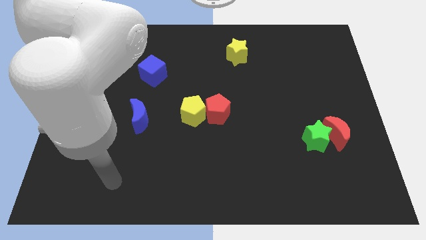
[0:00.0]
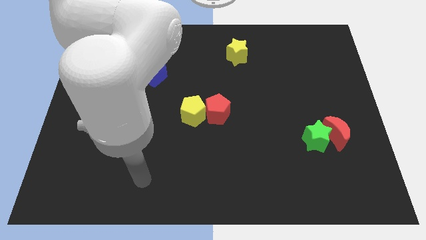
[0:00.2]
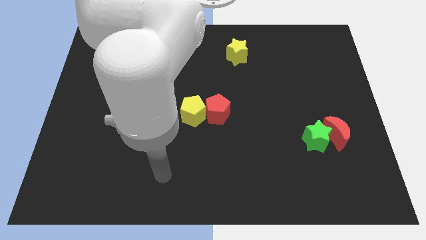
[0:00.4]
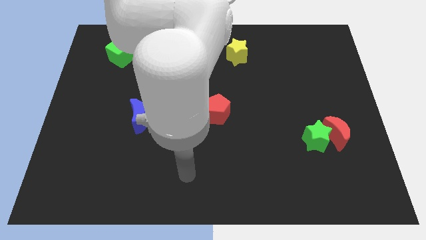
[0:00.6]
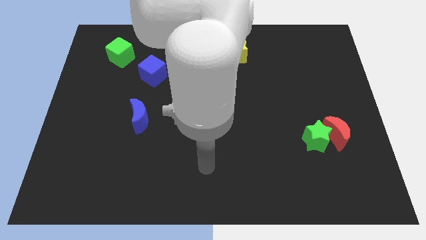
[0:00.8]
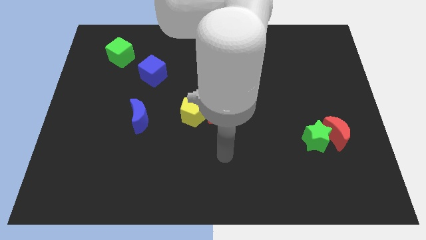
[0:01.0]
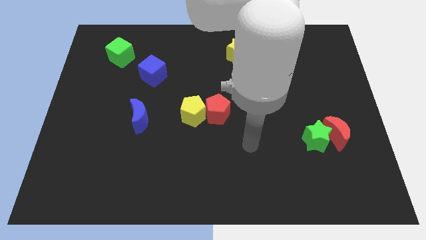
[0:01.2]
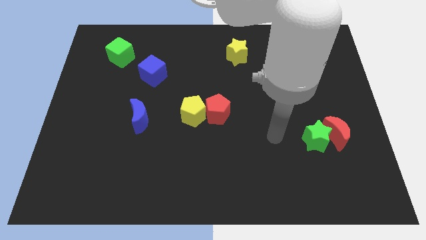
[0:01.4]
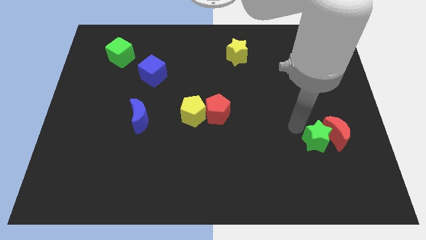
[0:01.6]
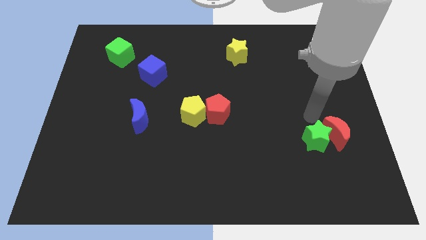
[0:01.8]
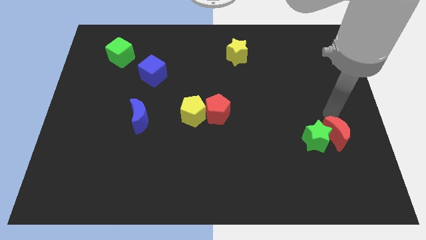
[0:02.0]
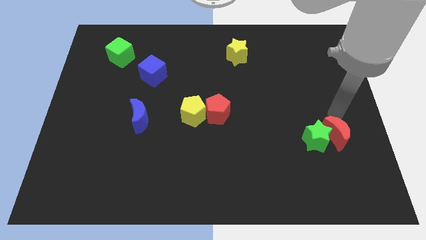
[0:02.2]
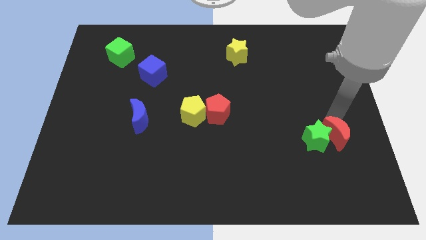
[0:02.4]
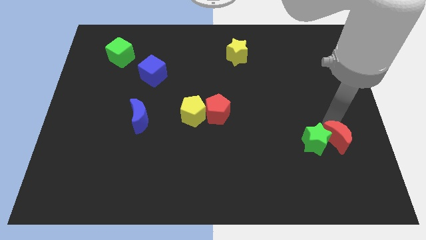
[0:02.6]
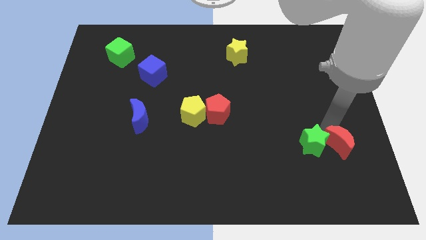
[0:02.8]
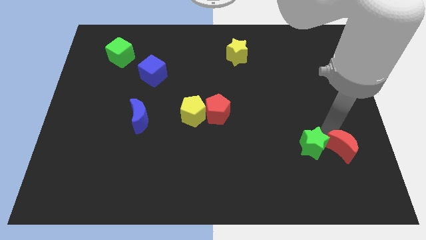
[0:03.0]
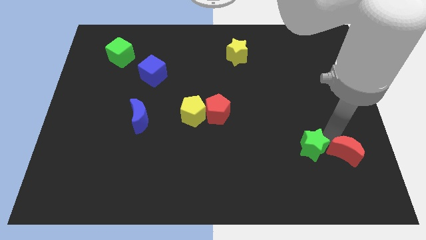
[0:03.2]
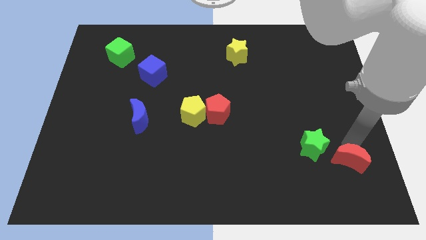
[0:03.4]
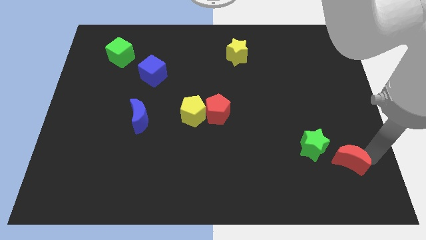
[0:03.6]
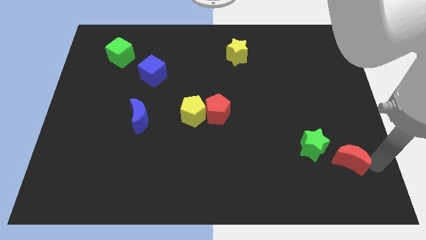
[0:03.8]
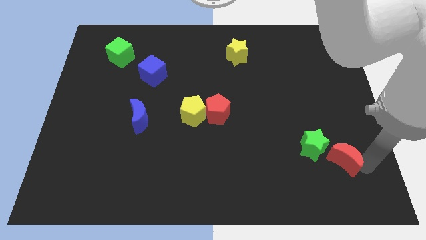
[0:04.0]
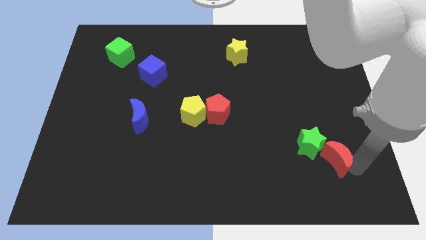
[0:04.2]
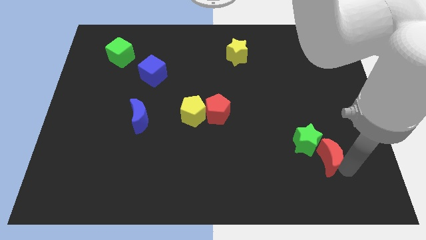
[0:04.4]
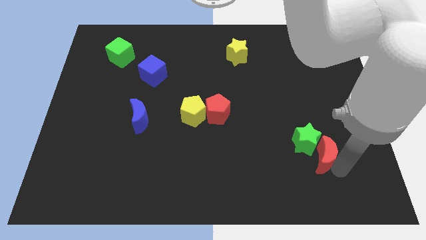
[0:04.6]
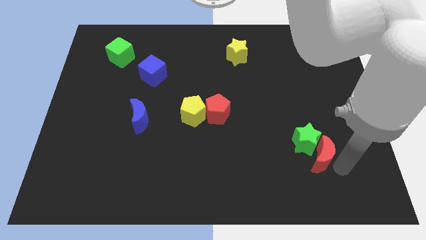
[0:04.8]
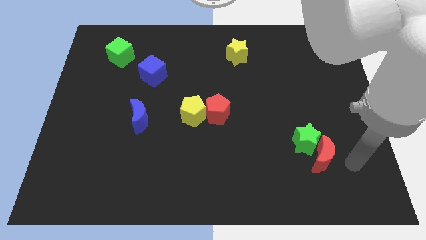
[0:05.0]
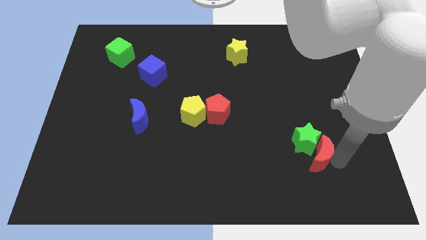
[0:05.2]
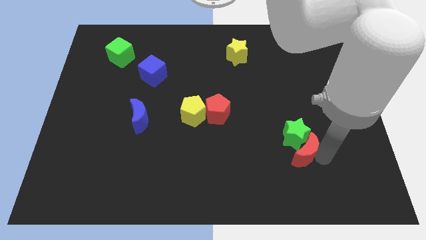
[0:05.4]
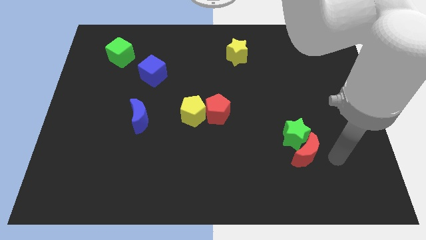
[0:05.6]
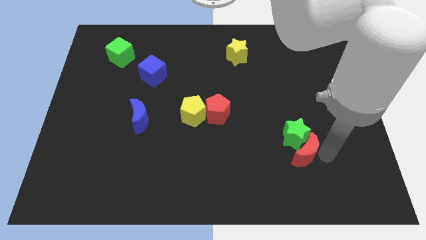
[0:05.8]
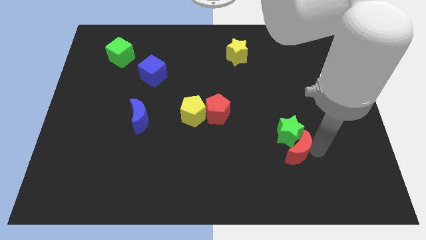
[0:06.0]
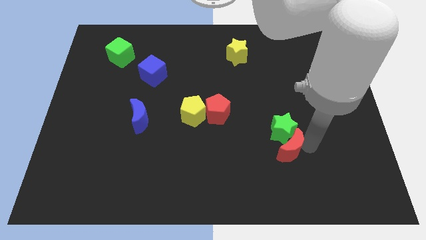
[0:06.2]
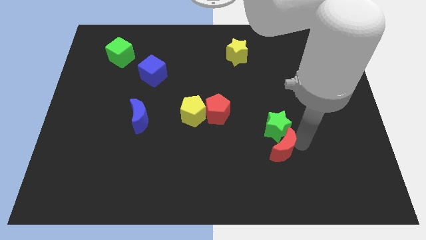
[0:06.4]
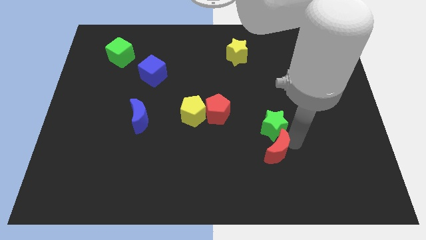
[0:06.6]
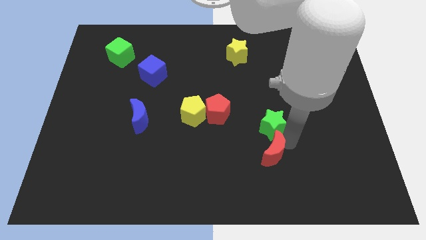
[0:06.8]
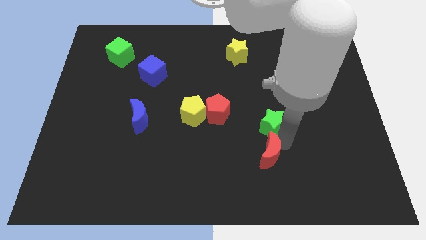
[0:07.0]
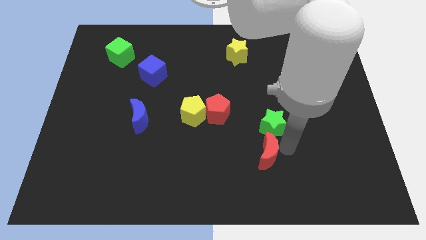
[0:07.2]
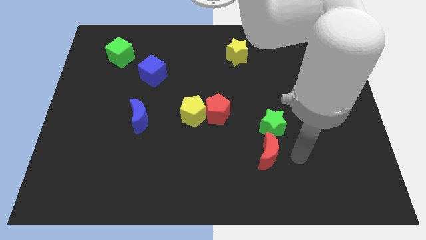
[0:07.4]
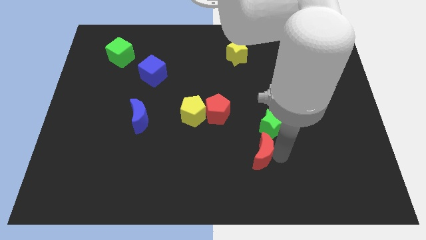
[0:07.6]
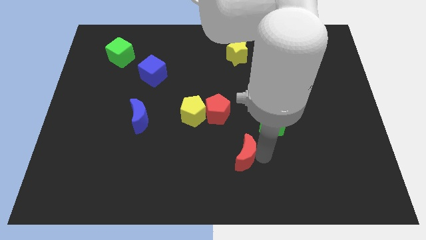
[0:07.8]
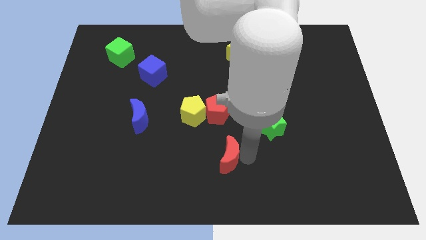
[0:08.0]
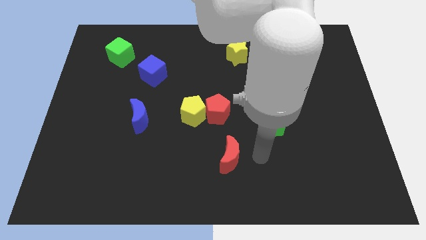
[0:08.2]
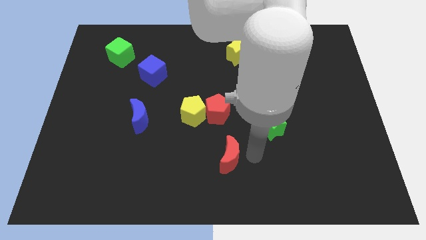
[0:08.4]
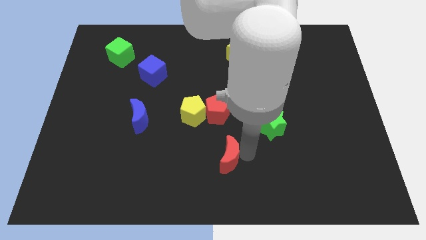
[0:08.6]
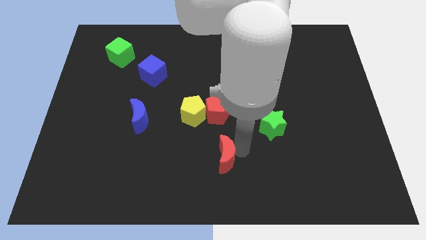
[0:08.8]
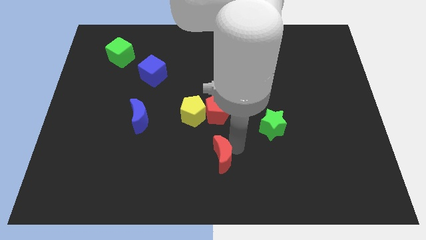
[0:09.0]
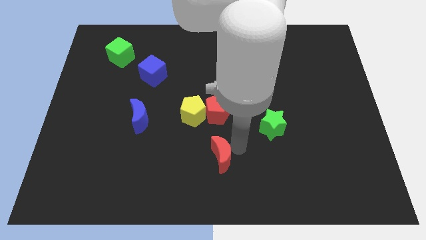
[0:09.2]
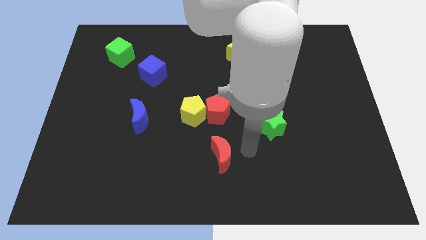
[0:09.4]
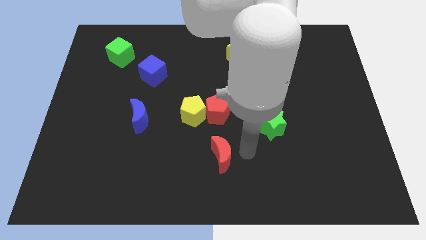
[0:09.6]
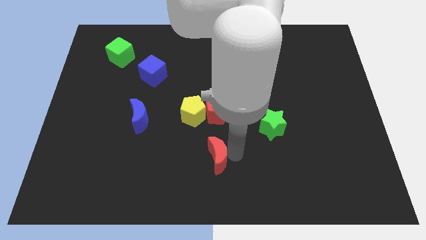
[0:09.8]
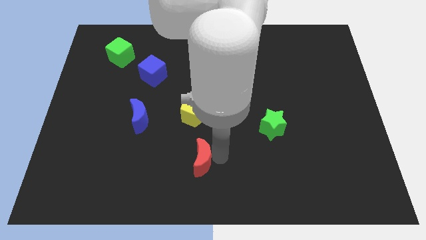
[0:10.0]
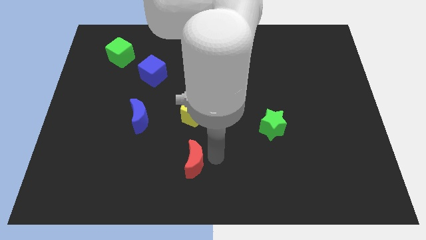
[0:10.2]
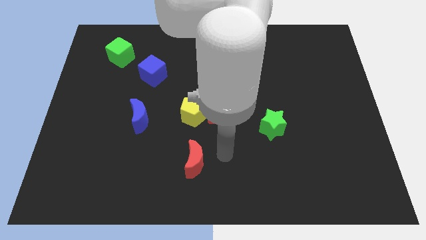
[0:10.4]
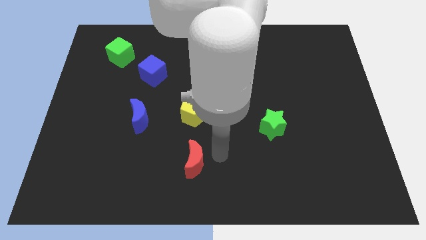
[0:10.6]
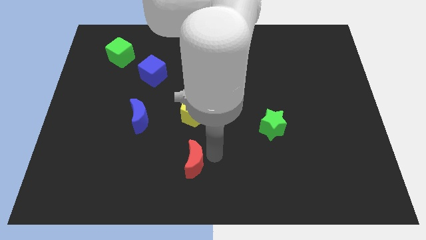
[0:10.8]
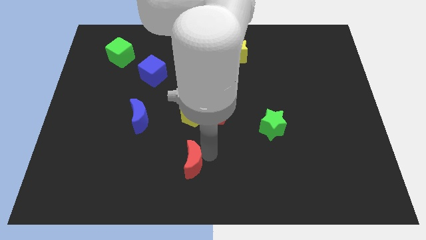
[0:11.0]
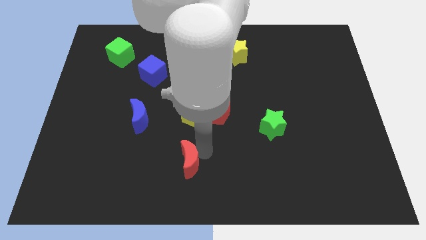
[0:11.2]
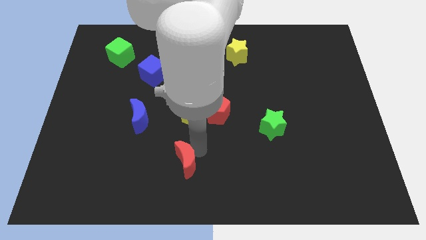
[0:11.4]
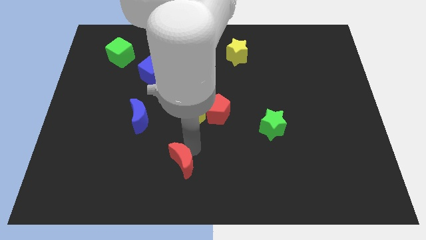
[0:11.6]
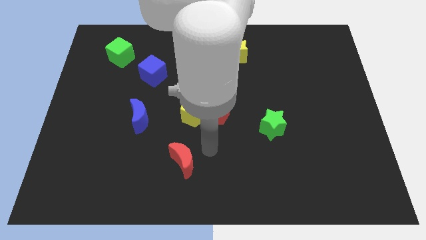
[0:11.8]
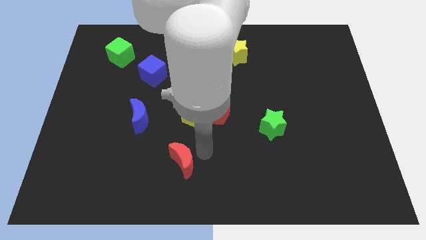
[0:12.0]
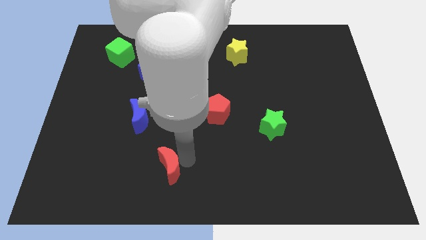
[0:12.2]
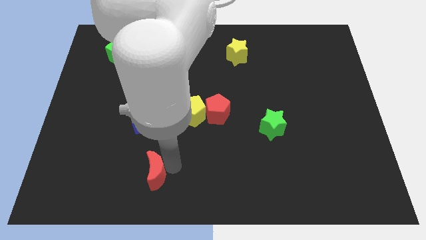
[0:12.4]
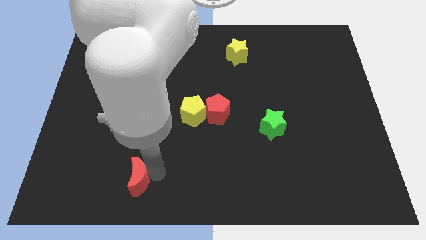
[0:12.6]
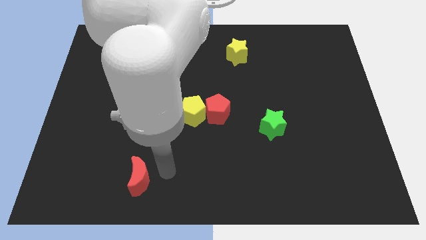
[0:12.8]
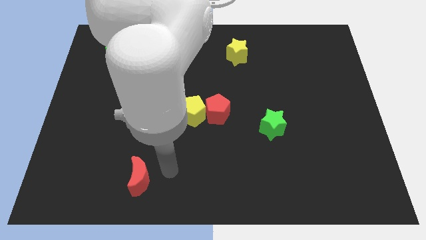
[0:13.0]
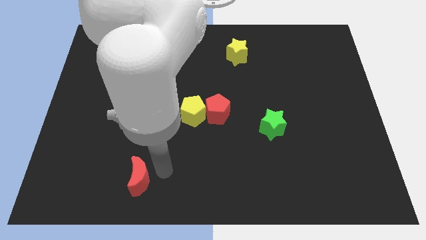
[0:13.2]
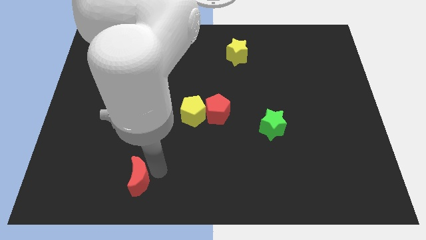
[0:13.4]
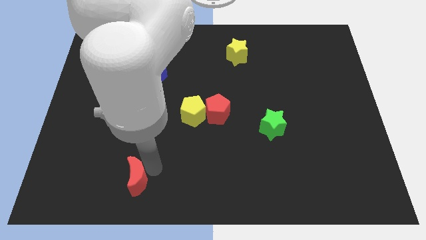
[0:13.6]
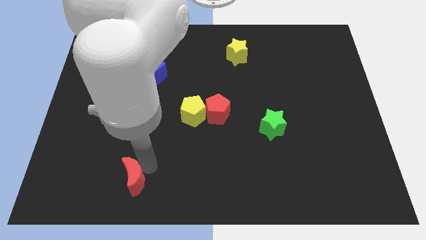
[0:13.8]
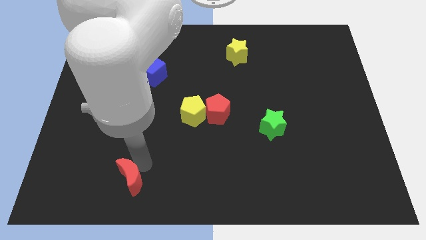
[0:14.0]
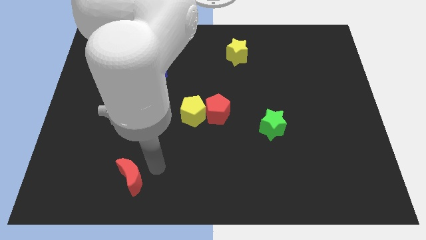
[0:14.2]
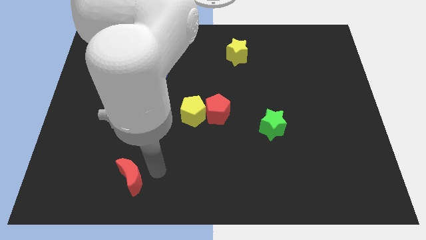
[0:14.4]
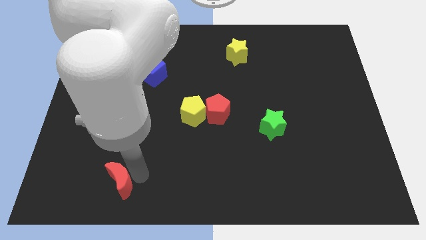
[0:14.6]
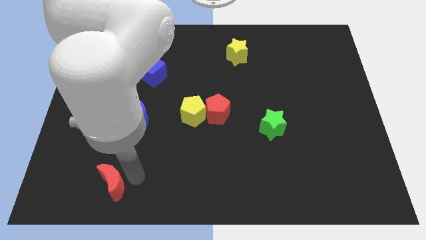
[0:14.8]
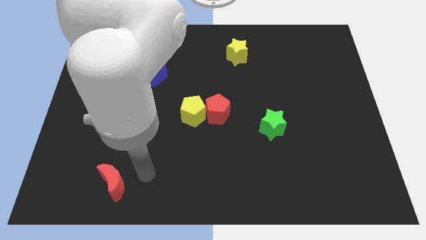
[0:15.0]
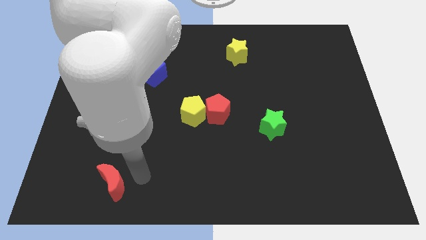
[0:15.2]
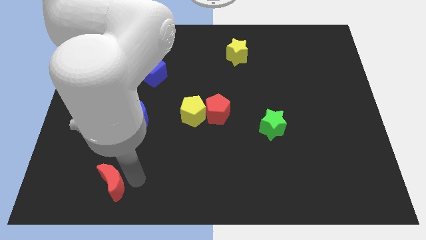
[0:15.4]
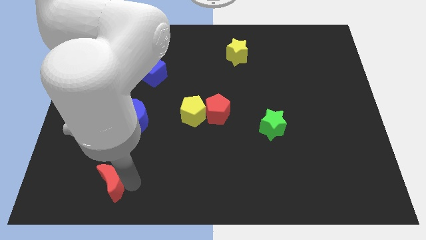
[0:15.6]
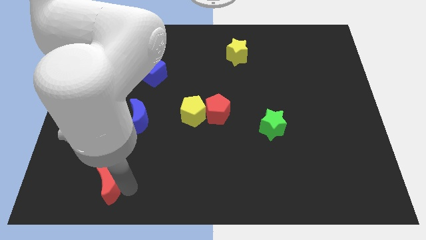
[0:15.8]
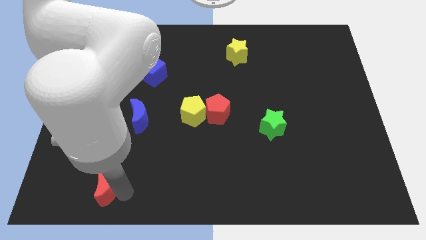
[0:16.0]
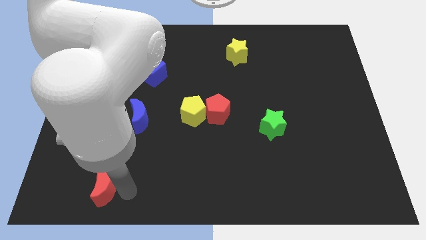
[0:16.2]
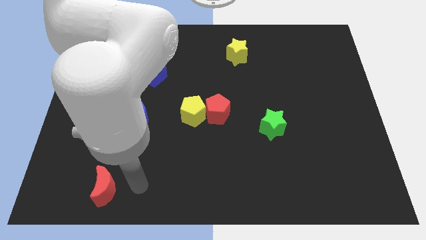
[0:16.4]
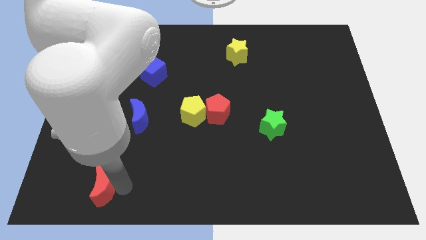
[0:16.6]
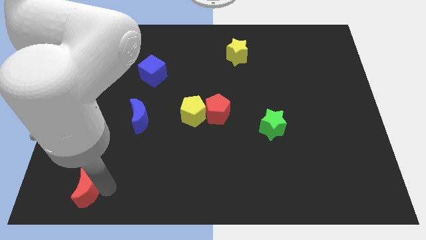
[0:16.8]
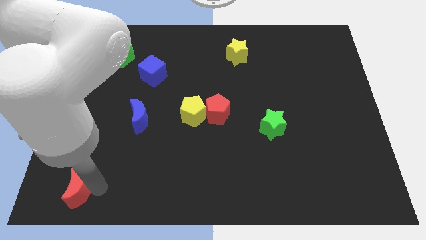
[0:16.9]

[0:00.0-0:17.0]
move the red moon to the lower left corner
